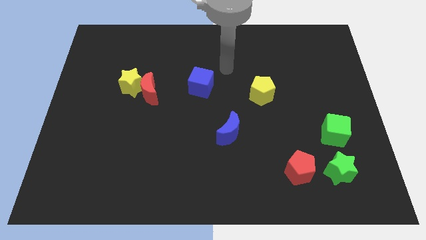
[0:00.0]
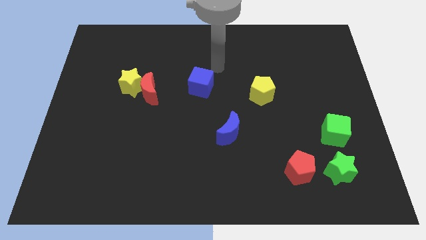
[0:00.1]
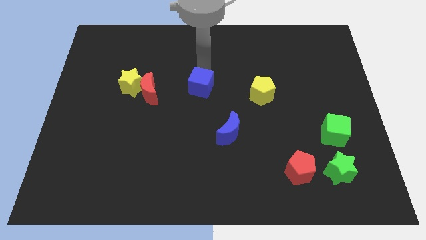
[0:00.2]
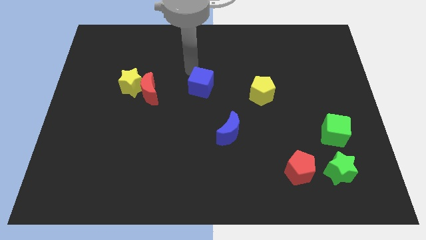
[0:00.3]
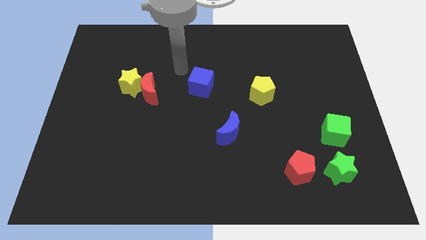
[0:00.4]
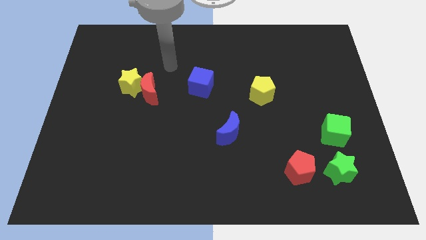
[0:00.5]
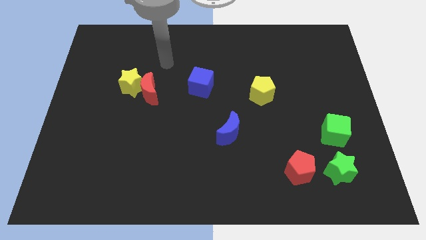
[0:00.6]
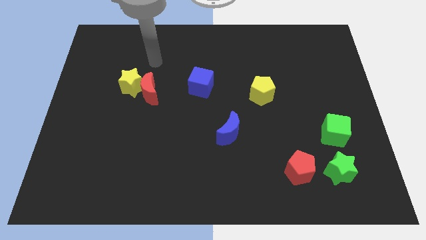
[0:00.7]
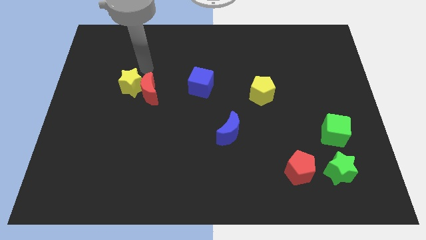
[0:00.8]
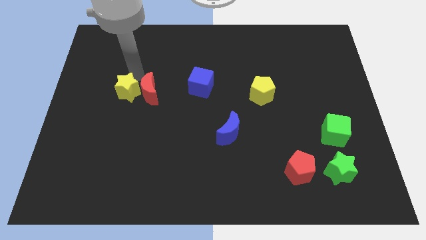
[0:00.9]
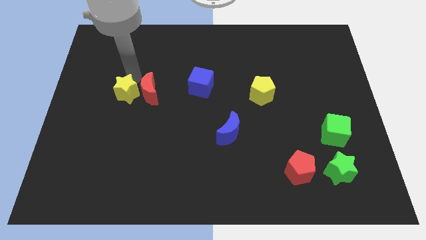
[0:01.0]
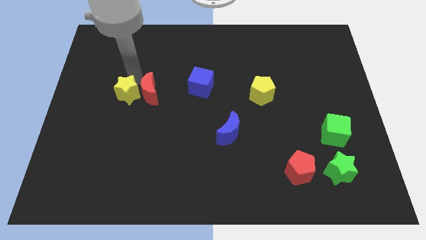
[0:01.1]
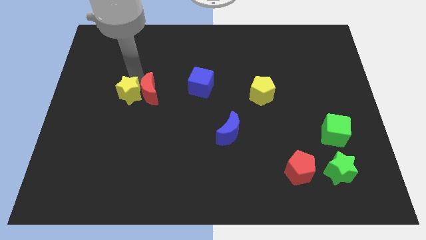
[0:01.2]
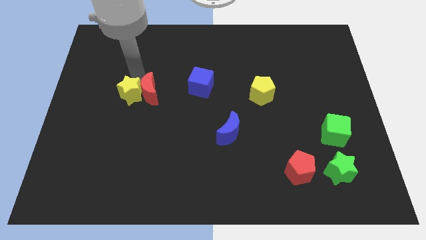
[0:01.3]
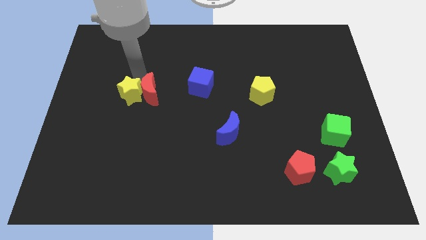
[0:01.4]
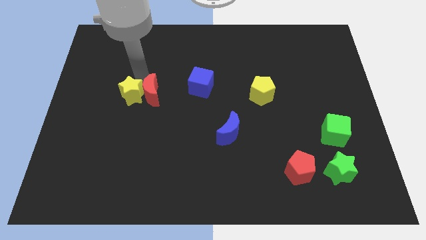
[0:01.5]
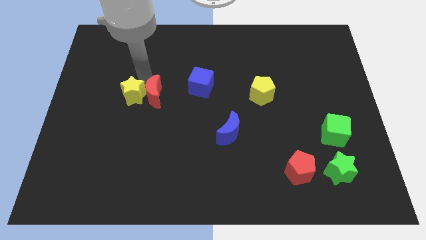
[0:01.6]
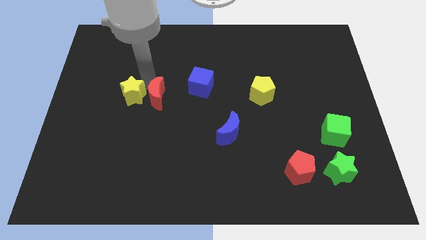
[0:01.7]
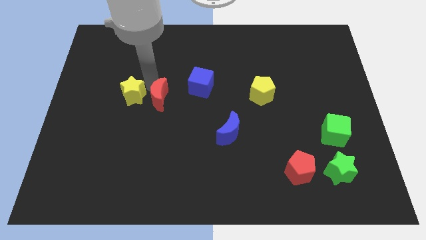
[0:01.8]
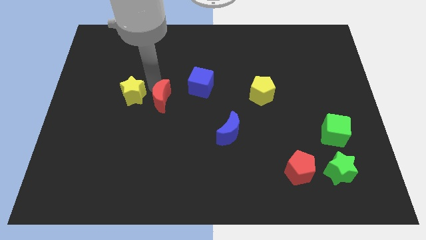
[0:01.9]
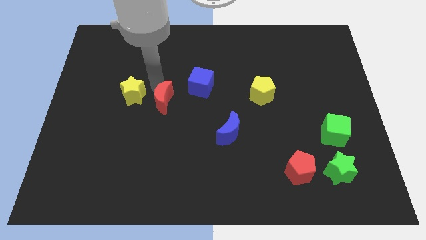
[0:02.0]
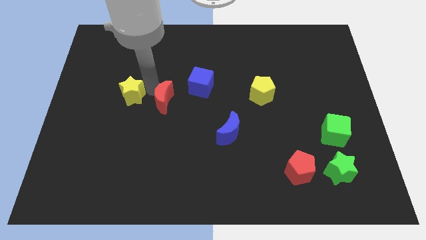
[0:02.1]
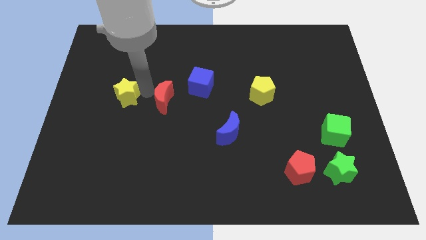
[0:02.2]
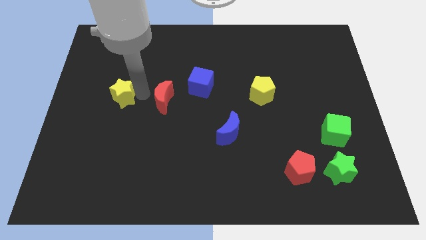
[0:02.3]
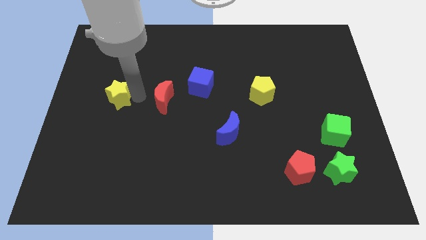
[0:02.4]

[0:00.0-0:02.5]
move the red moon away from the yellow star

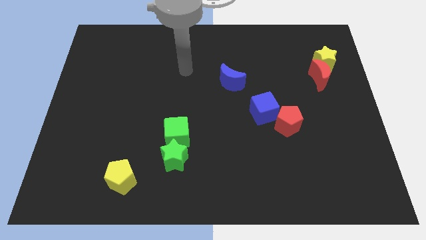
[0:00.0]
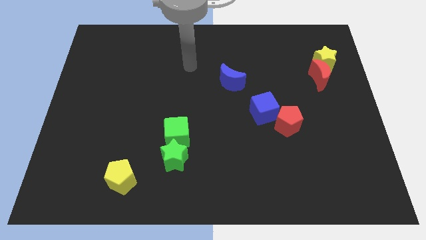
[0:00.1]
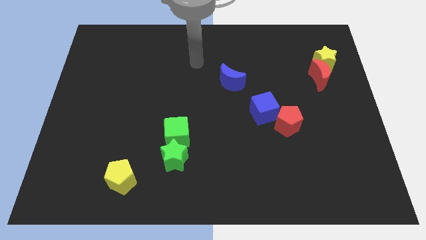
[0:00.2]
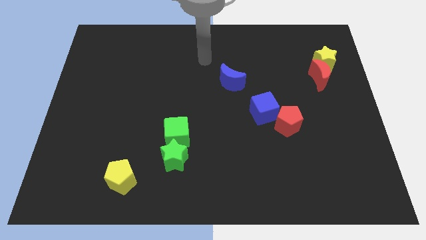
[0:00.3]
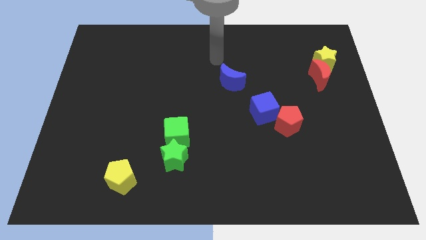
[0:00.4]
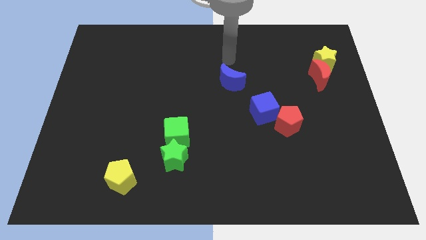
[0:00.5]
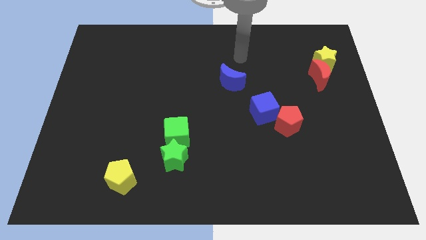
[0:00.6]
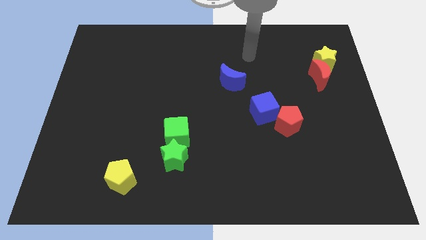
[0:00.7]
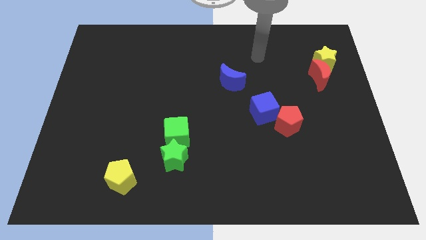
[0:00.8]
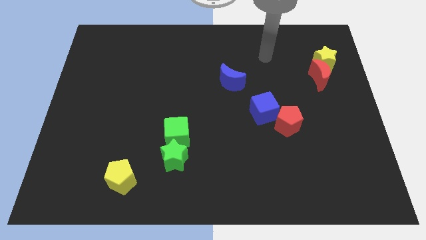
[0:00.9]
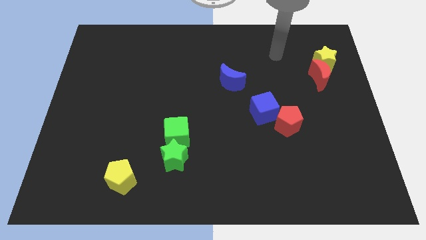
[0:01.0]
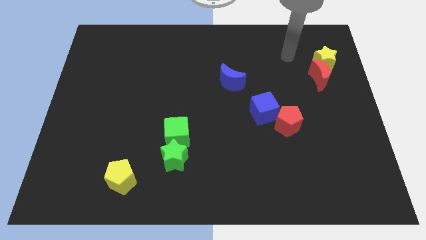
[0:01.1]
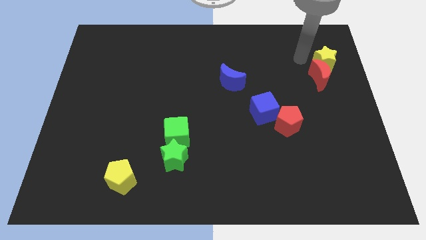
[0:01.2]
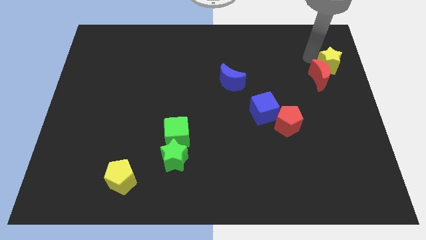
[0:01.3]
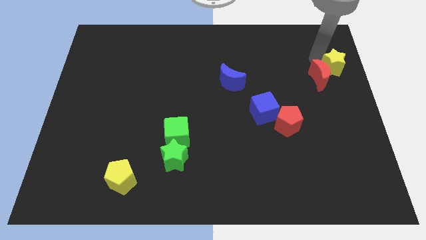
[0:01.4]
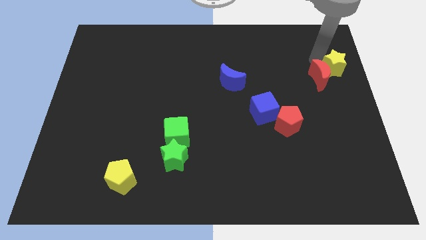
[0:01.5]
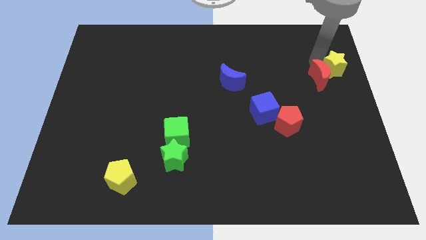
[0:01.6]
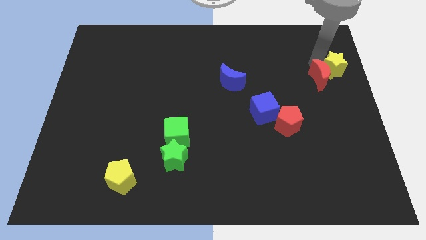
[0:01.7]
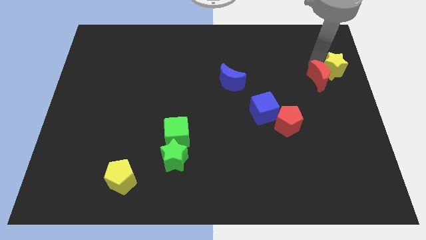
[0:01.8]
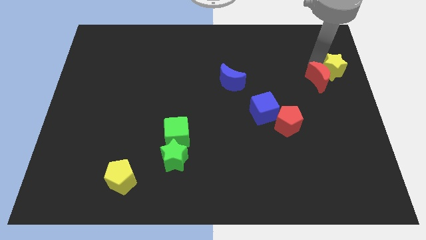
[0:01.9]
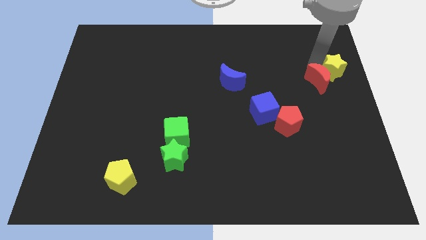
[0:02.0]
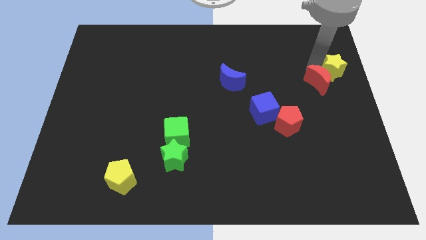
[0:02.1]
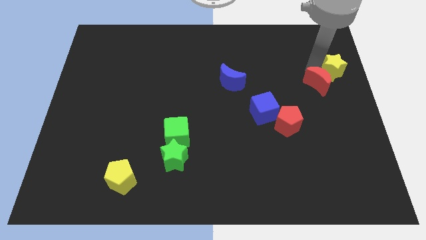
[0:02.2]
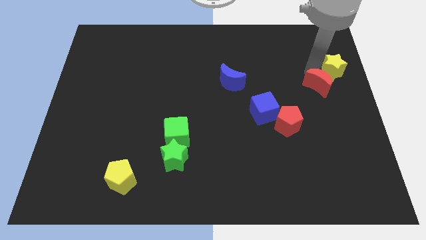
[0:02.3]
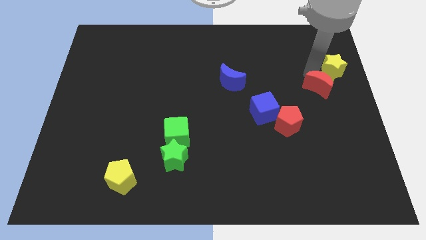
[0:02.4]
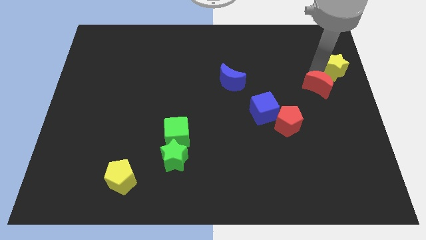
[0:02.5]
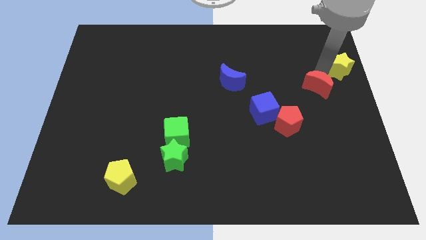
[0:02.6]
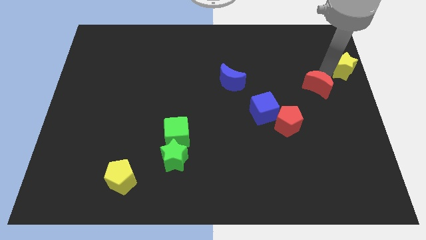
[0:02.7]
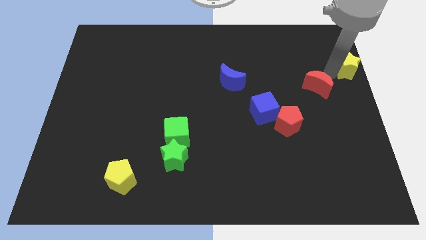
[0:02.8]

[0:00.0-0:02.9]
pull the red moon apart from the yellow star

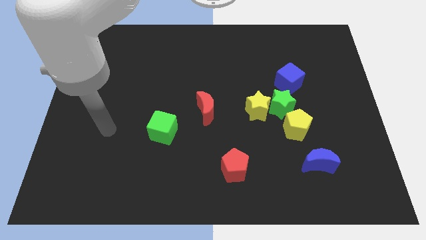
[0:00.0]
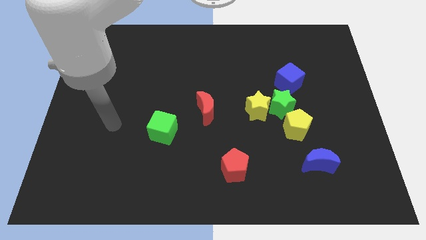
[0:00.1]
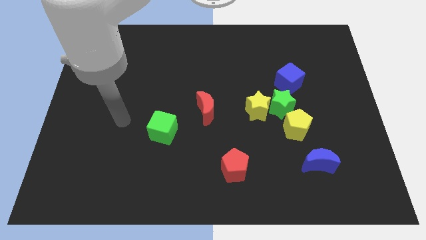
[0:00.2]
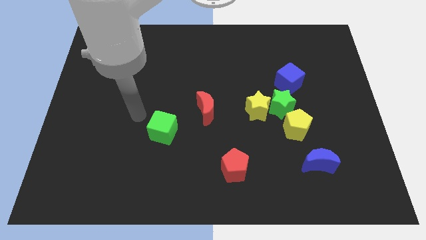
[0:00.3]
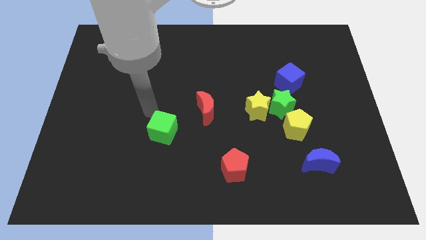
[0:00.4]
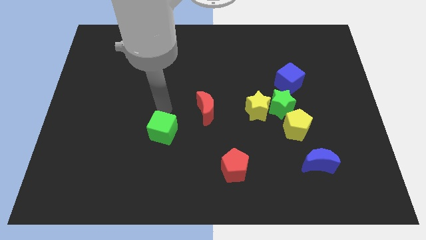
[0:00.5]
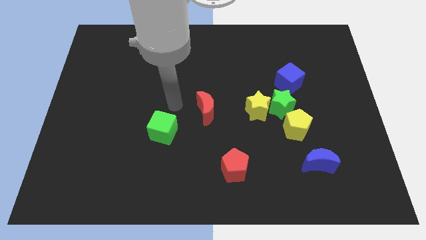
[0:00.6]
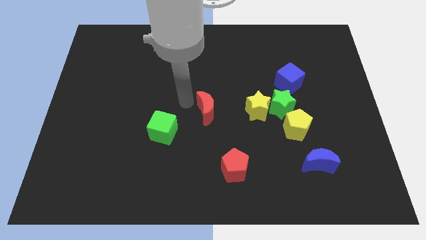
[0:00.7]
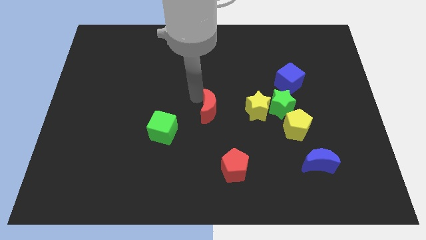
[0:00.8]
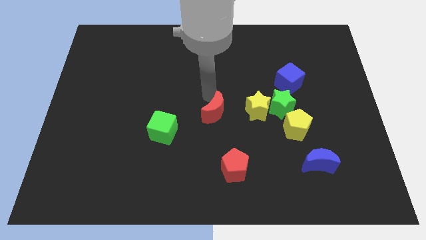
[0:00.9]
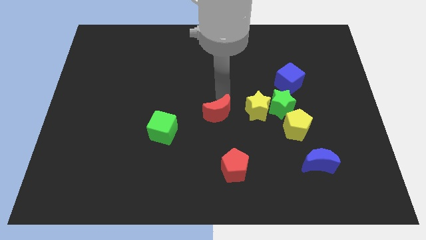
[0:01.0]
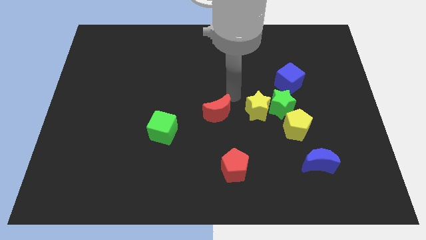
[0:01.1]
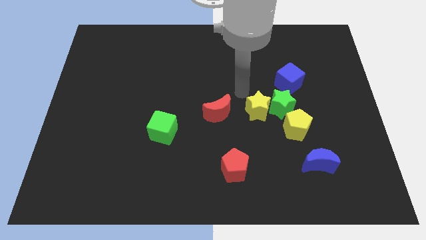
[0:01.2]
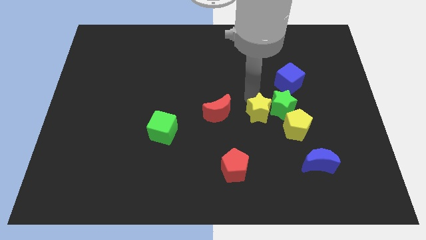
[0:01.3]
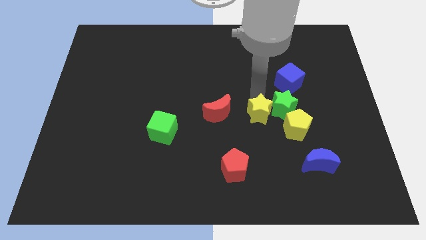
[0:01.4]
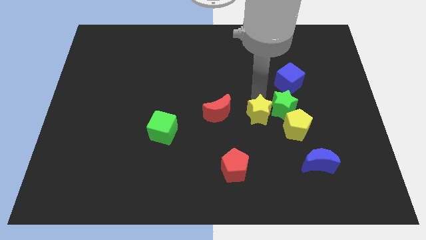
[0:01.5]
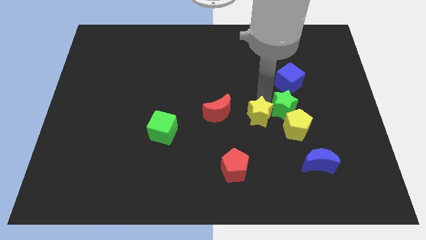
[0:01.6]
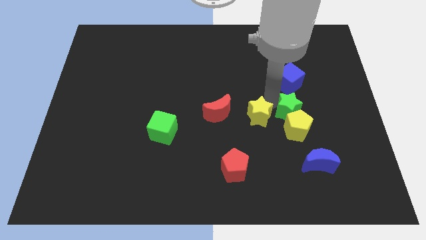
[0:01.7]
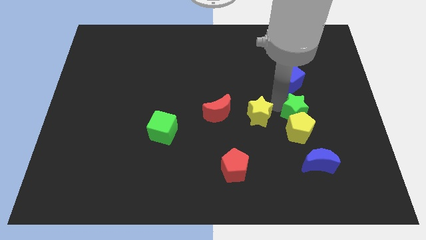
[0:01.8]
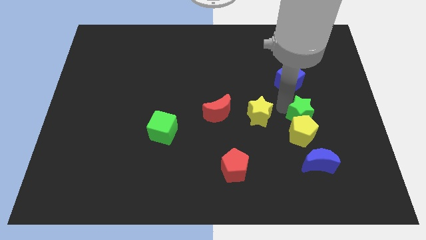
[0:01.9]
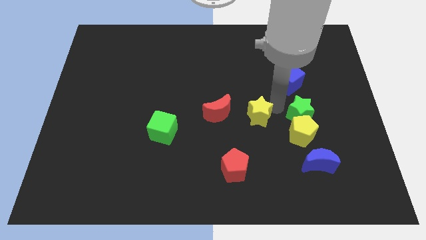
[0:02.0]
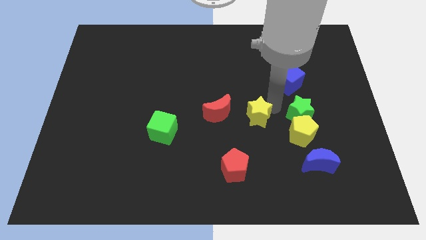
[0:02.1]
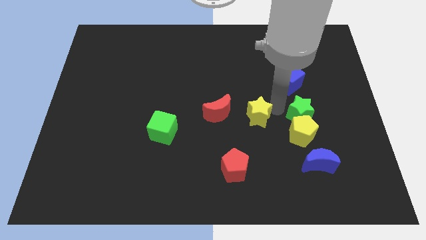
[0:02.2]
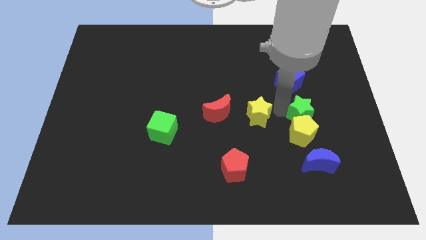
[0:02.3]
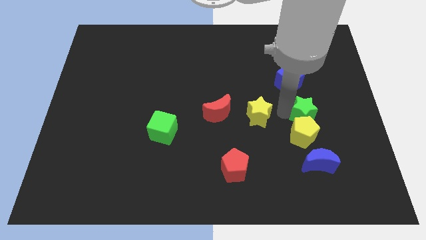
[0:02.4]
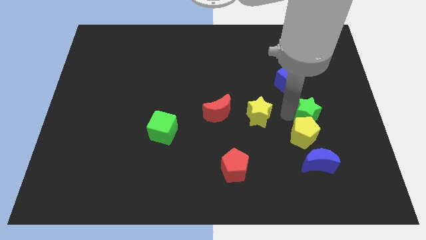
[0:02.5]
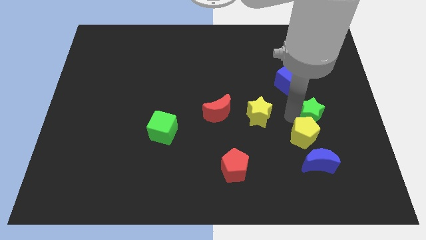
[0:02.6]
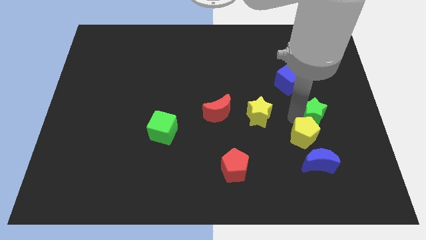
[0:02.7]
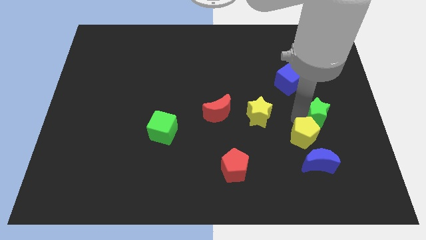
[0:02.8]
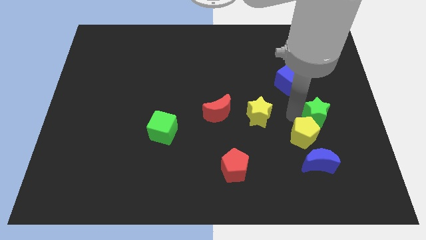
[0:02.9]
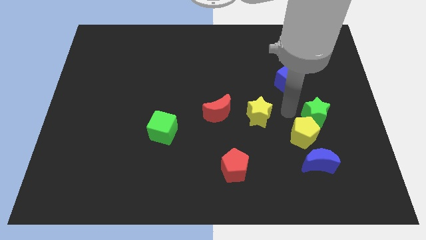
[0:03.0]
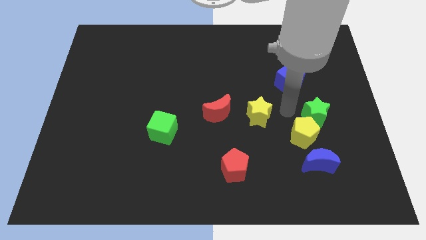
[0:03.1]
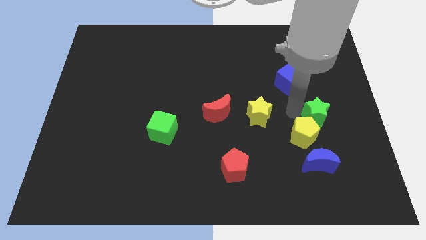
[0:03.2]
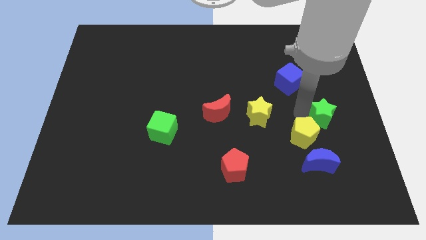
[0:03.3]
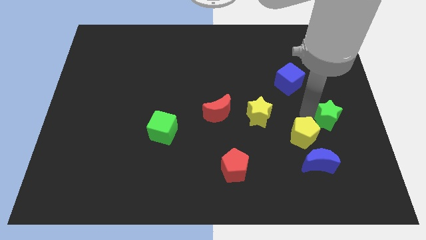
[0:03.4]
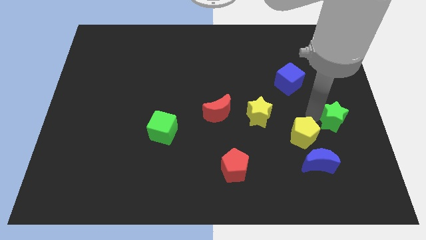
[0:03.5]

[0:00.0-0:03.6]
separate the green star from the clump

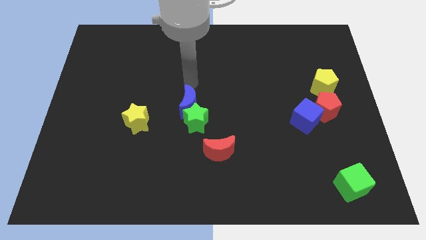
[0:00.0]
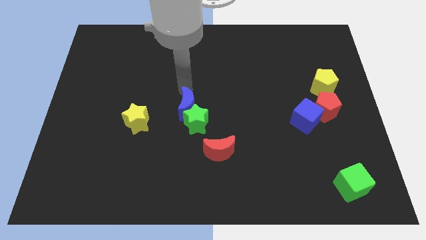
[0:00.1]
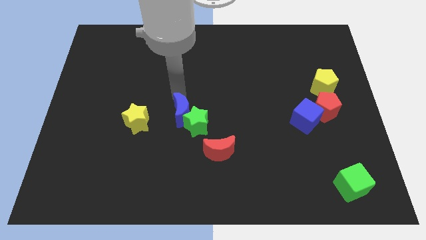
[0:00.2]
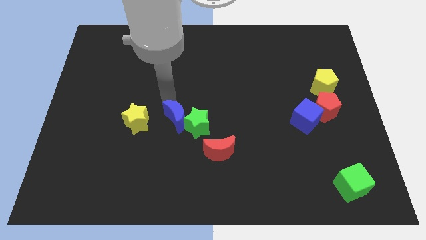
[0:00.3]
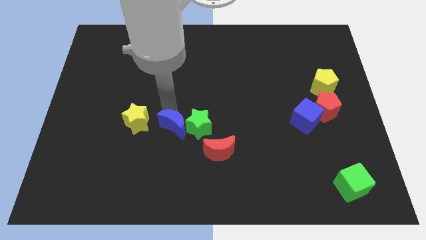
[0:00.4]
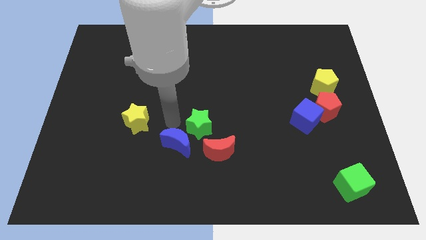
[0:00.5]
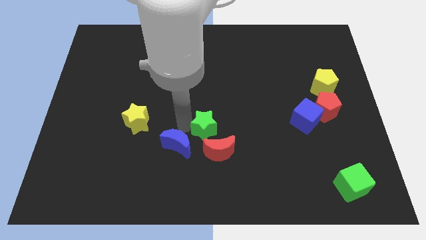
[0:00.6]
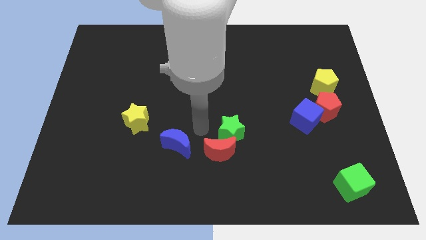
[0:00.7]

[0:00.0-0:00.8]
pull the blue moon apart from the green star
